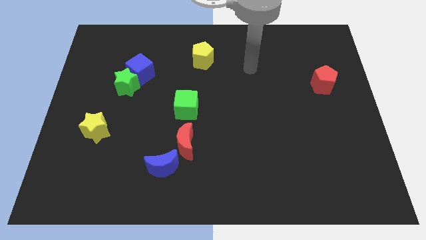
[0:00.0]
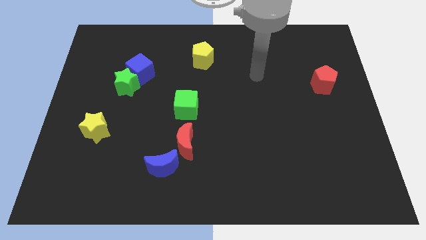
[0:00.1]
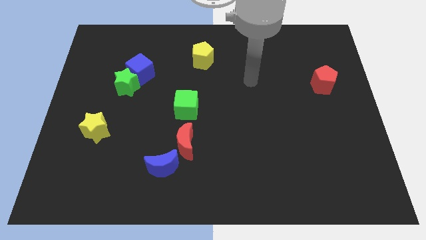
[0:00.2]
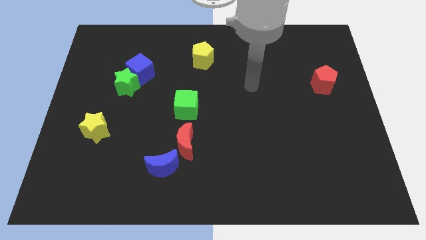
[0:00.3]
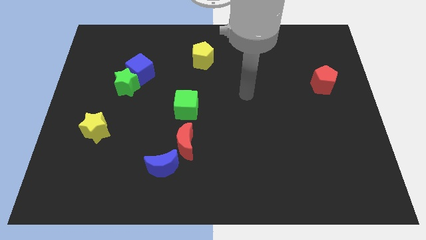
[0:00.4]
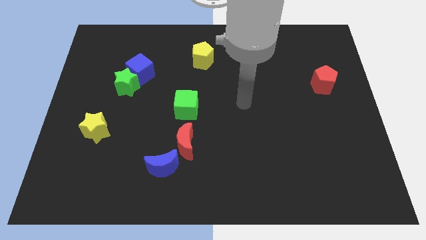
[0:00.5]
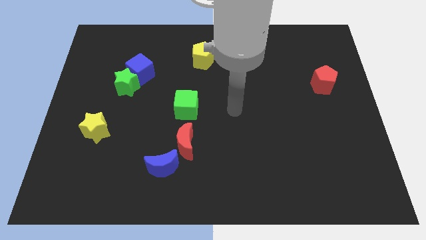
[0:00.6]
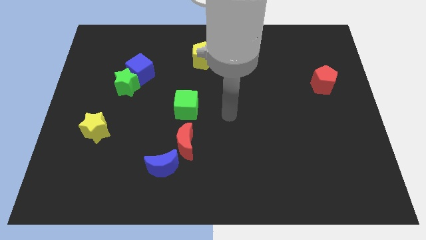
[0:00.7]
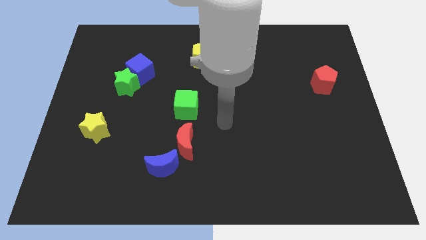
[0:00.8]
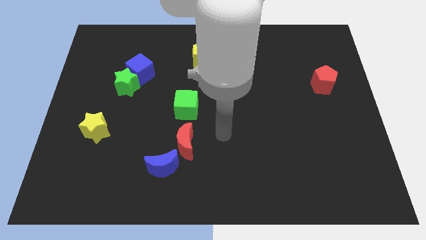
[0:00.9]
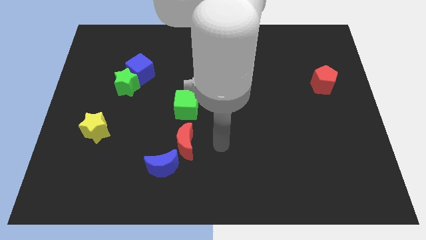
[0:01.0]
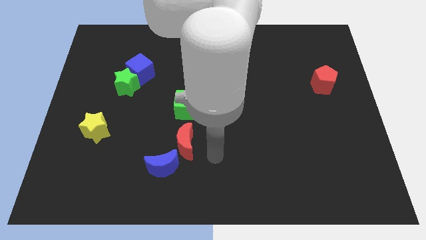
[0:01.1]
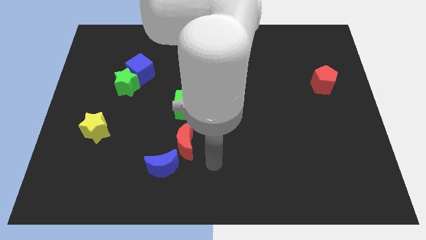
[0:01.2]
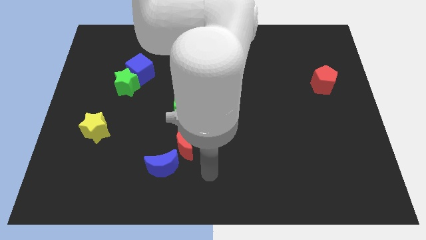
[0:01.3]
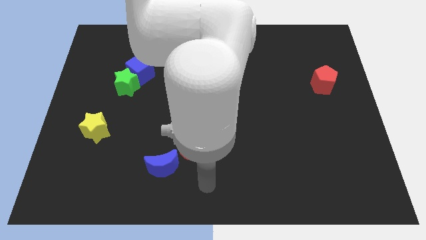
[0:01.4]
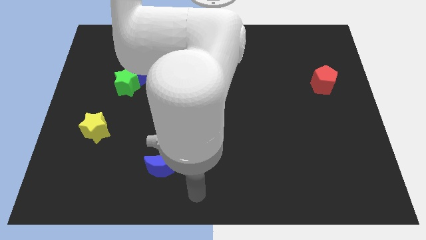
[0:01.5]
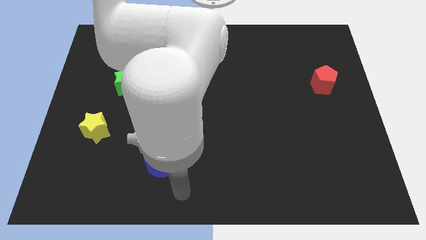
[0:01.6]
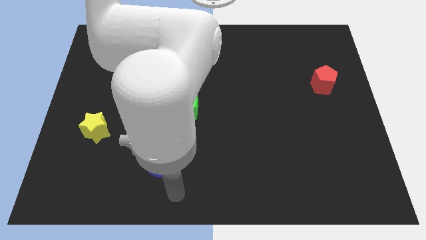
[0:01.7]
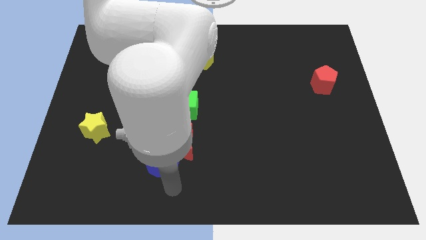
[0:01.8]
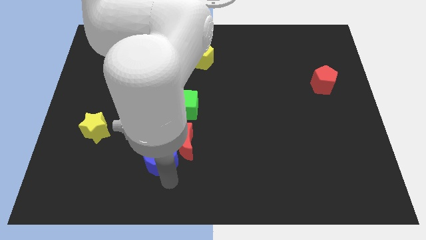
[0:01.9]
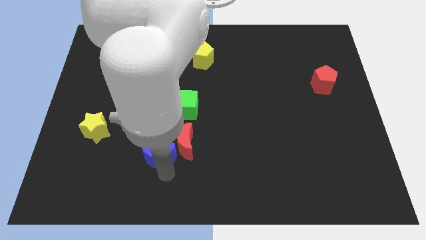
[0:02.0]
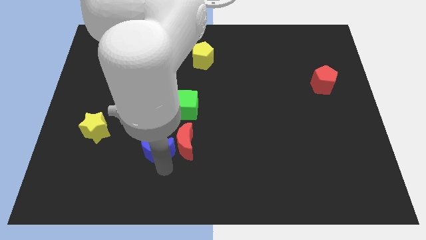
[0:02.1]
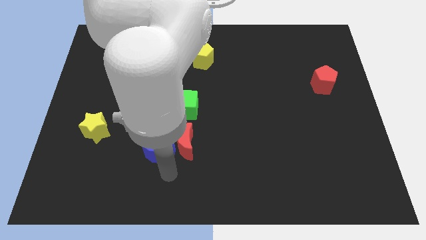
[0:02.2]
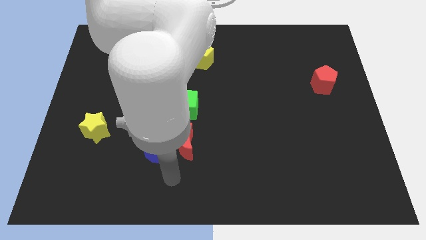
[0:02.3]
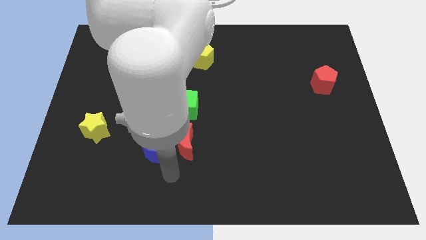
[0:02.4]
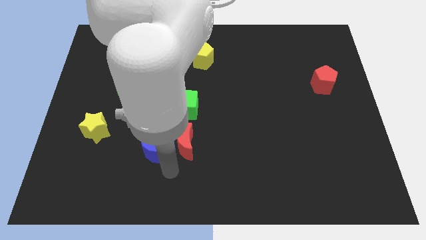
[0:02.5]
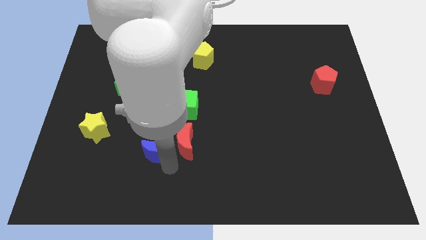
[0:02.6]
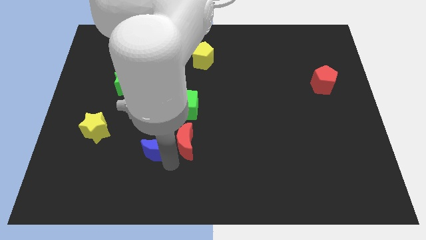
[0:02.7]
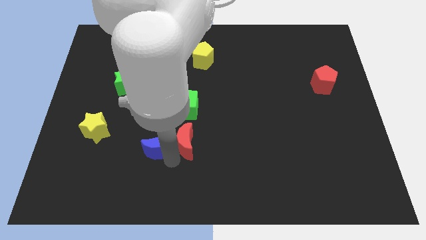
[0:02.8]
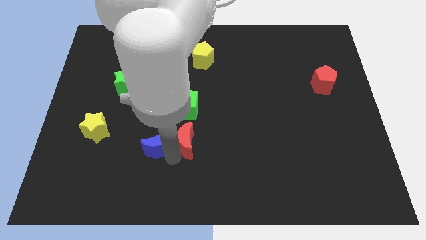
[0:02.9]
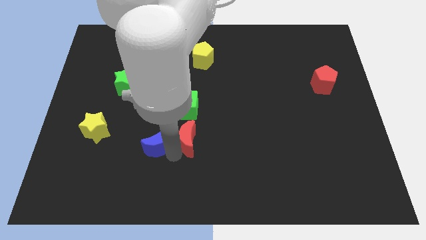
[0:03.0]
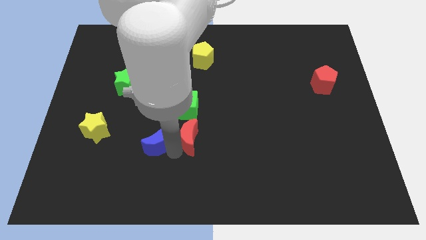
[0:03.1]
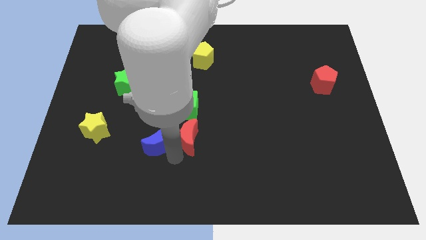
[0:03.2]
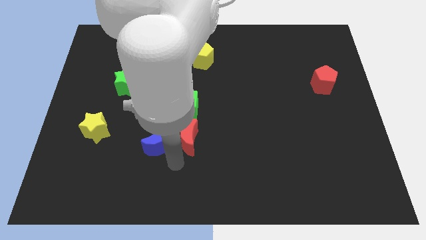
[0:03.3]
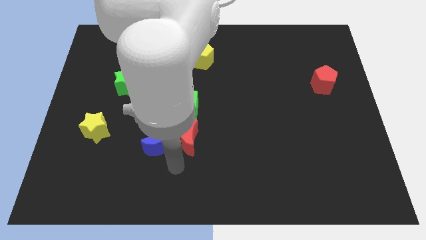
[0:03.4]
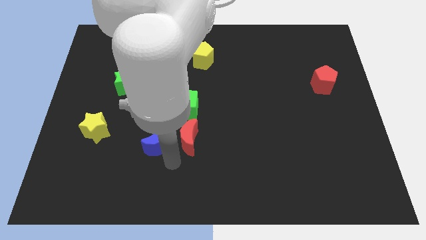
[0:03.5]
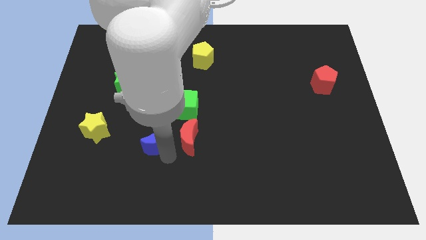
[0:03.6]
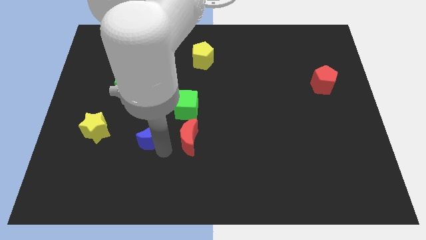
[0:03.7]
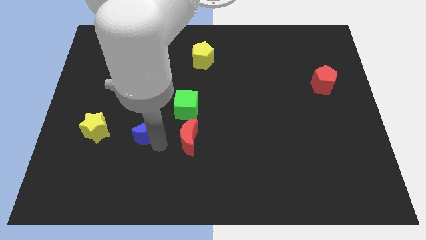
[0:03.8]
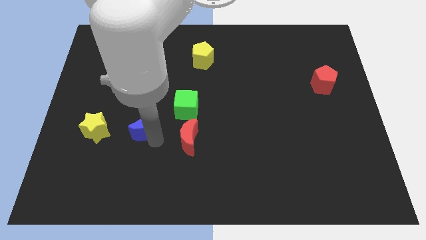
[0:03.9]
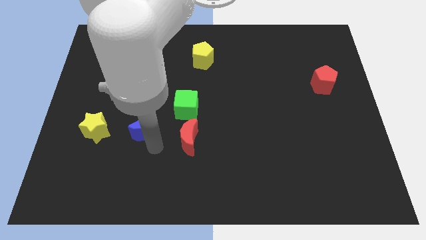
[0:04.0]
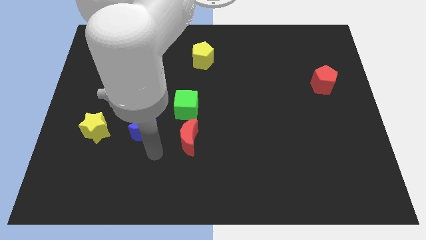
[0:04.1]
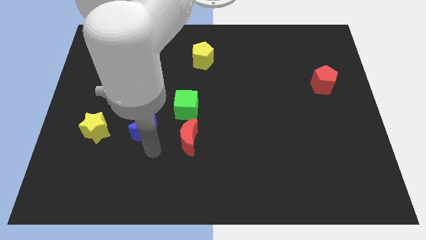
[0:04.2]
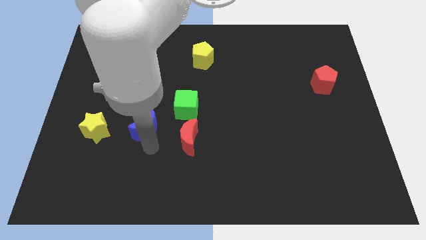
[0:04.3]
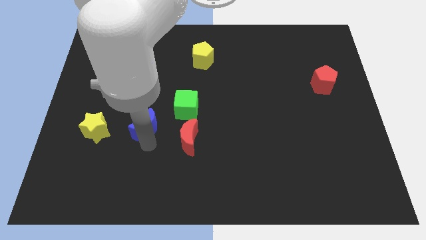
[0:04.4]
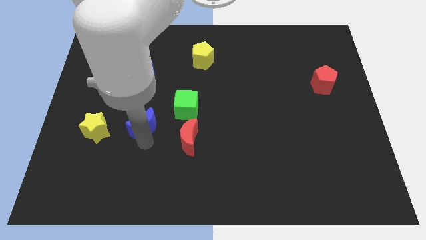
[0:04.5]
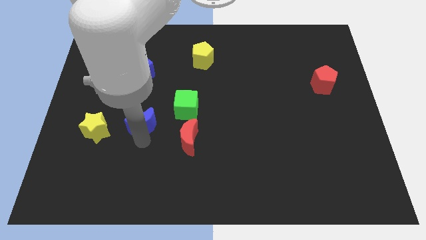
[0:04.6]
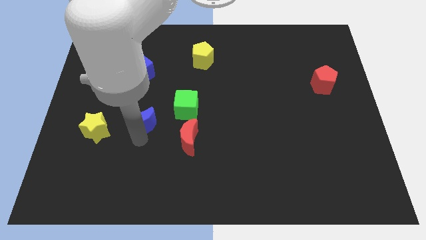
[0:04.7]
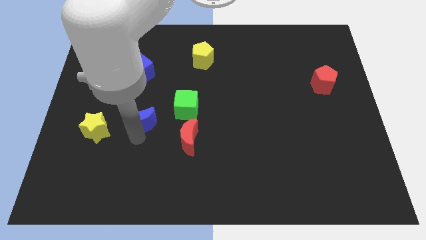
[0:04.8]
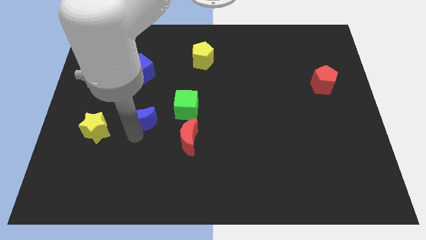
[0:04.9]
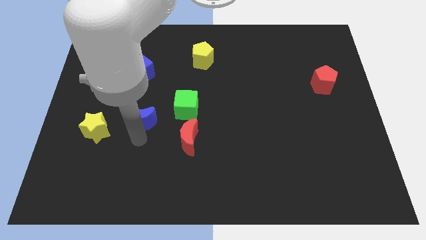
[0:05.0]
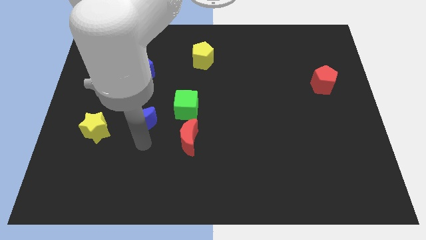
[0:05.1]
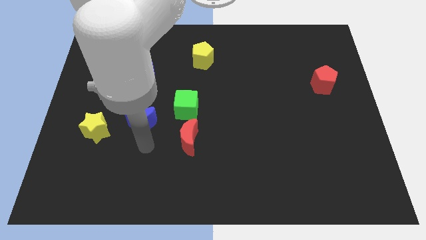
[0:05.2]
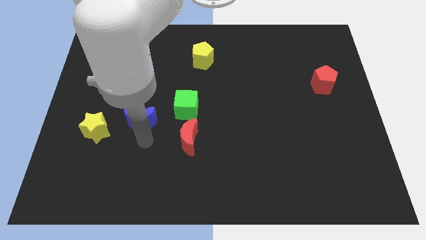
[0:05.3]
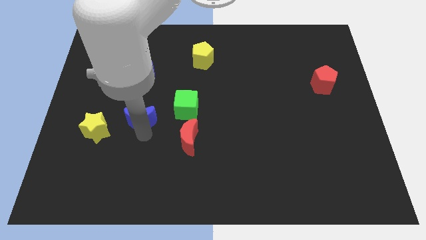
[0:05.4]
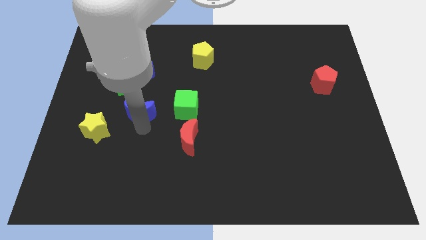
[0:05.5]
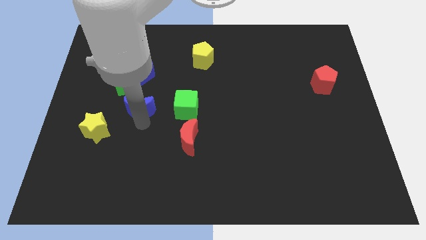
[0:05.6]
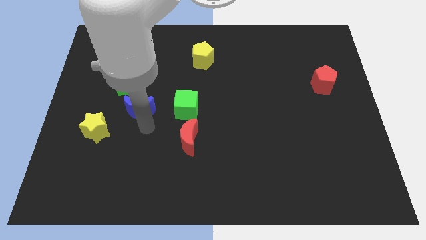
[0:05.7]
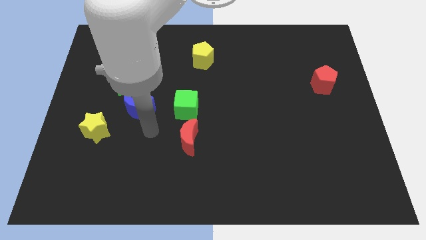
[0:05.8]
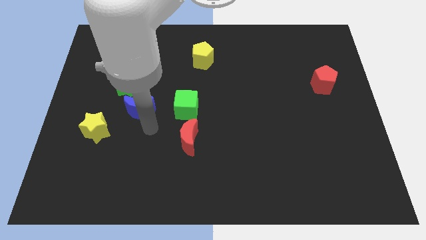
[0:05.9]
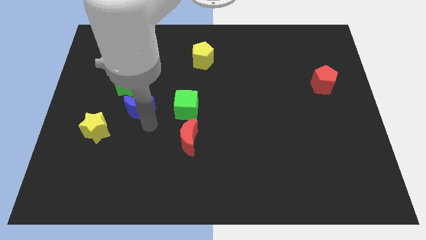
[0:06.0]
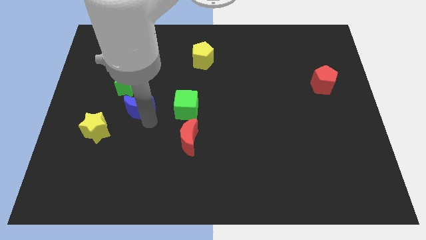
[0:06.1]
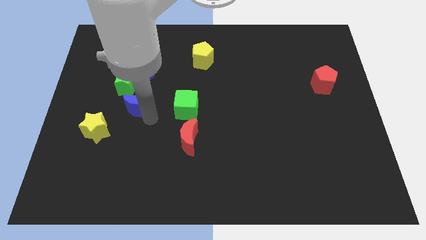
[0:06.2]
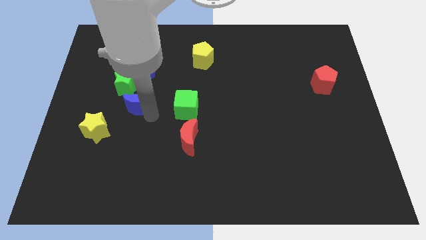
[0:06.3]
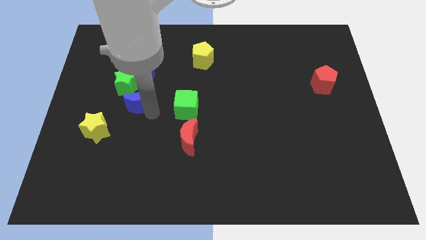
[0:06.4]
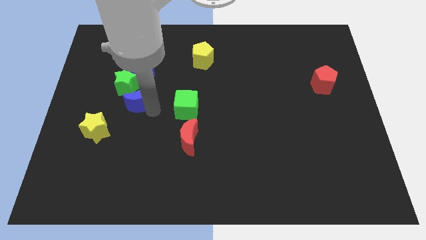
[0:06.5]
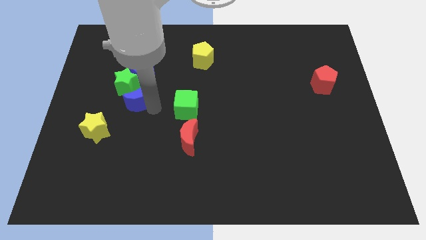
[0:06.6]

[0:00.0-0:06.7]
move the blue moon next to the green star

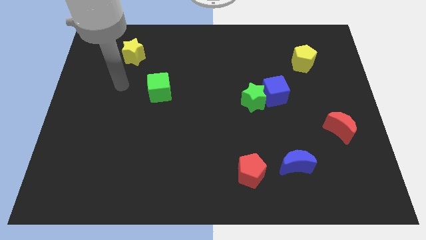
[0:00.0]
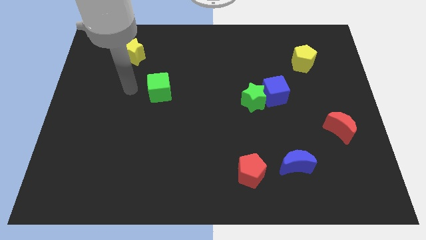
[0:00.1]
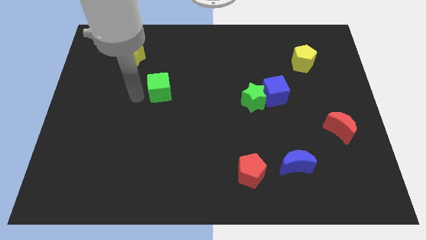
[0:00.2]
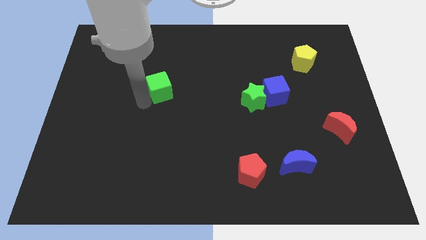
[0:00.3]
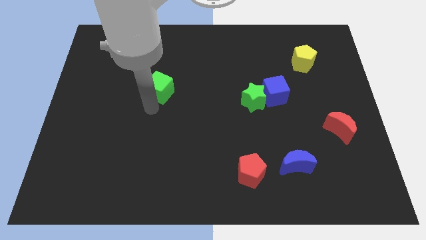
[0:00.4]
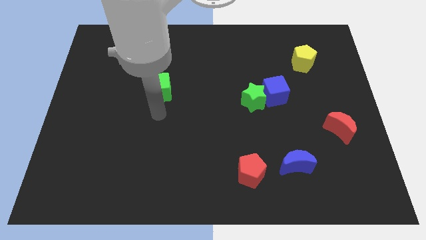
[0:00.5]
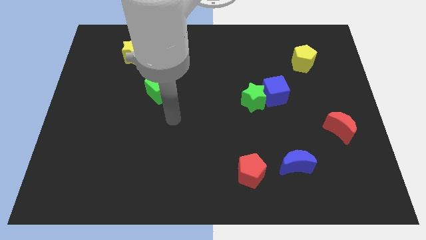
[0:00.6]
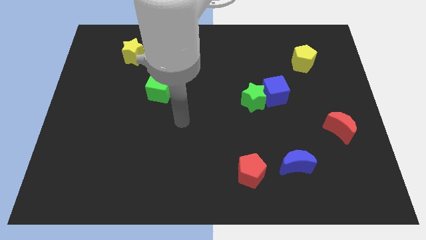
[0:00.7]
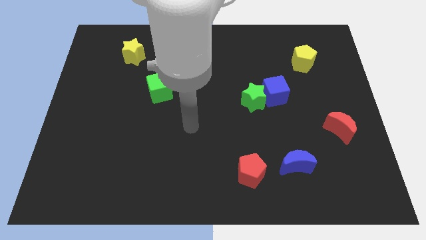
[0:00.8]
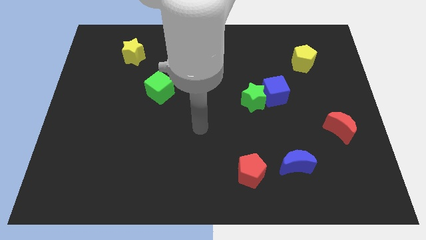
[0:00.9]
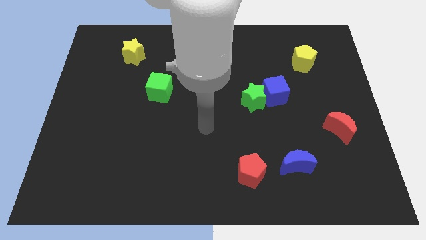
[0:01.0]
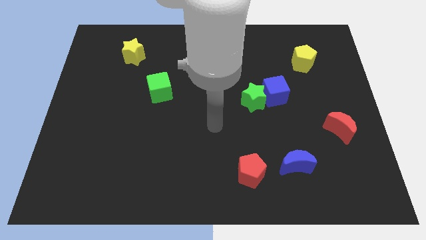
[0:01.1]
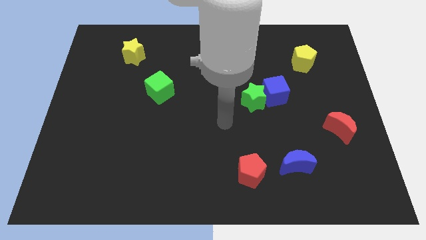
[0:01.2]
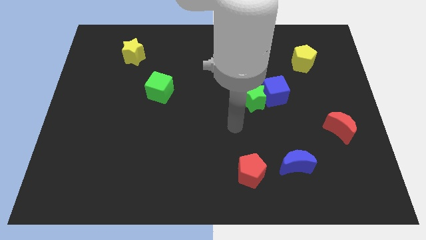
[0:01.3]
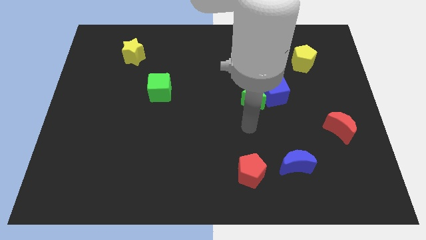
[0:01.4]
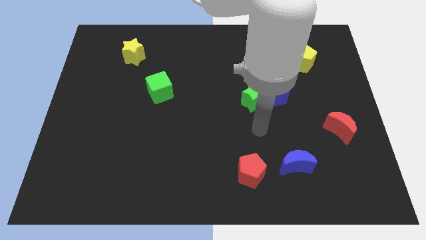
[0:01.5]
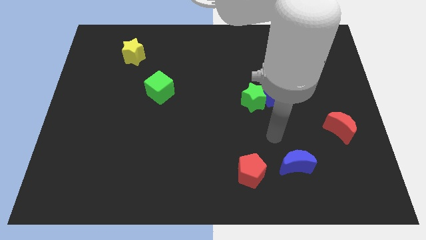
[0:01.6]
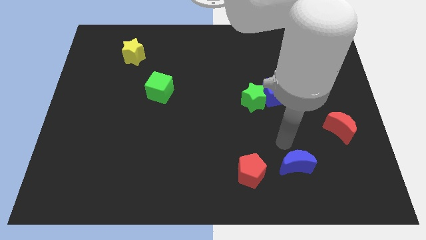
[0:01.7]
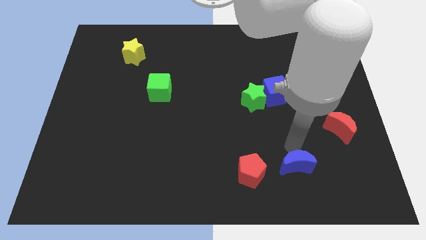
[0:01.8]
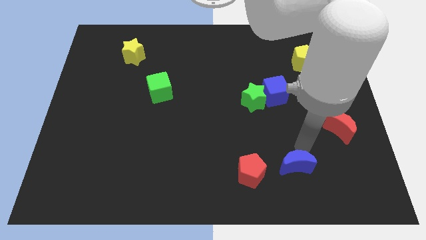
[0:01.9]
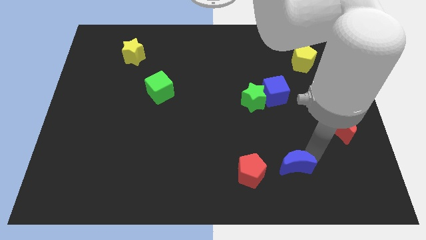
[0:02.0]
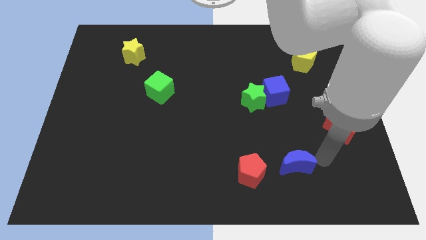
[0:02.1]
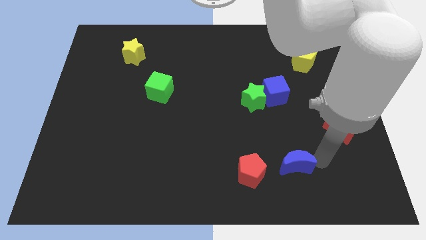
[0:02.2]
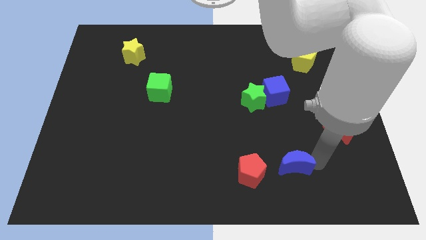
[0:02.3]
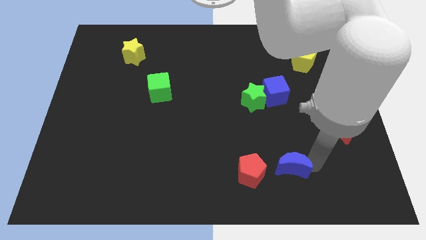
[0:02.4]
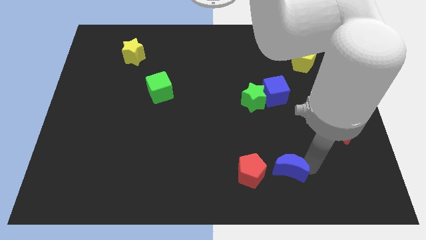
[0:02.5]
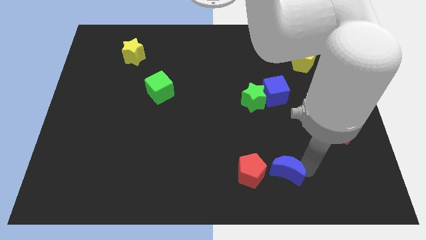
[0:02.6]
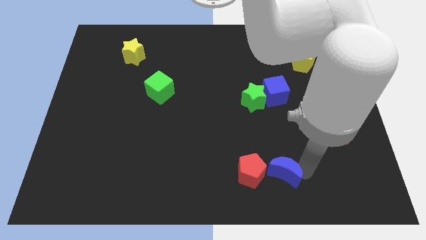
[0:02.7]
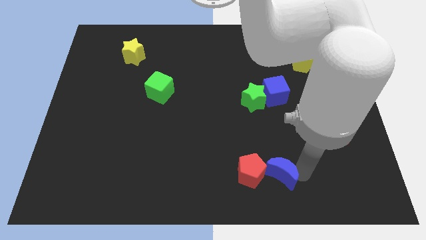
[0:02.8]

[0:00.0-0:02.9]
push the blue moon towards the red pentagon
